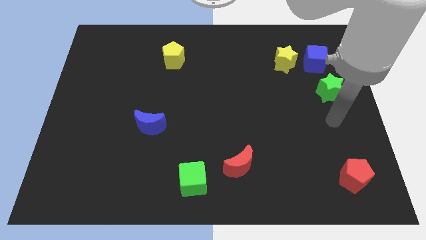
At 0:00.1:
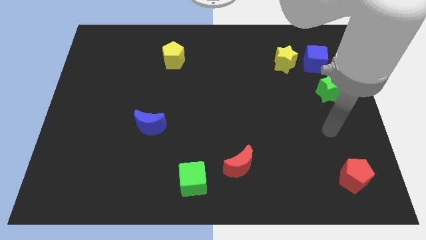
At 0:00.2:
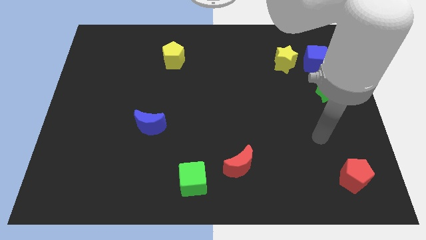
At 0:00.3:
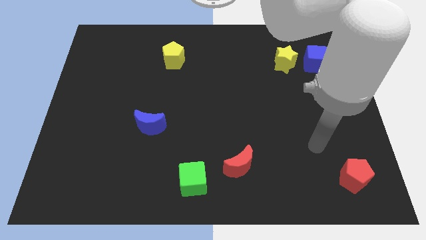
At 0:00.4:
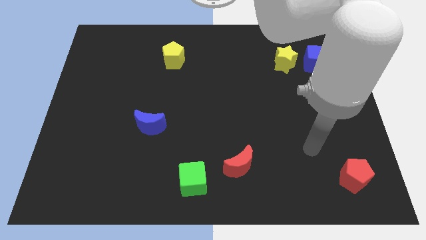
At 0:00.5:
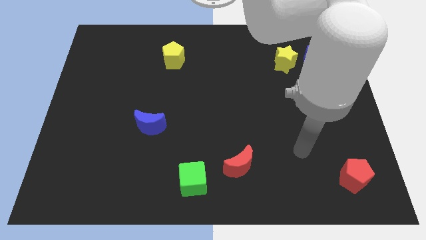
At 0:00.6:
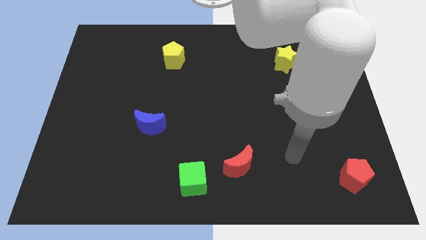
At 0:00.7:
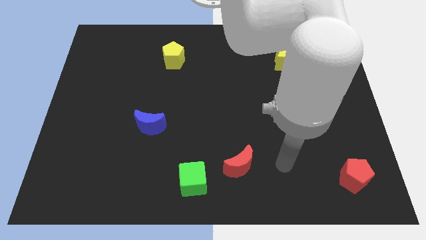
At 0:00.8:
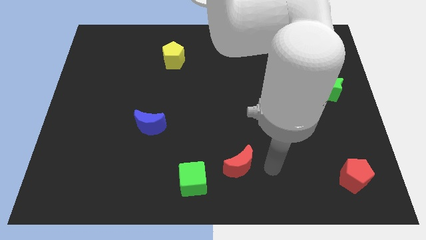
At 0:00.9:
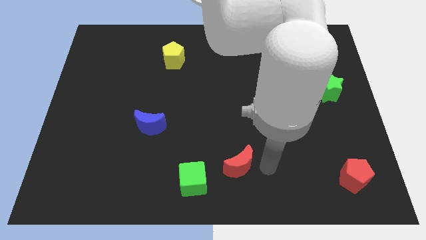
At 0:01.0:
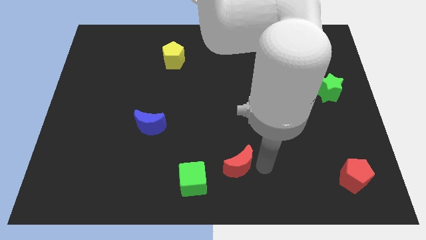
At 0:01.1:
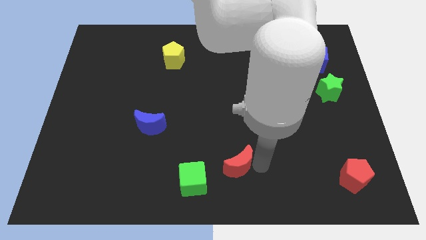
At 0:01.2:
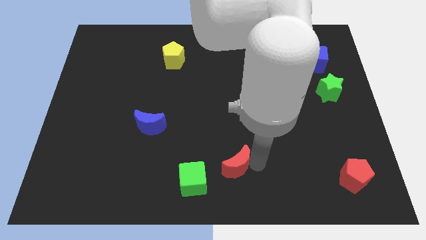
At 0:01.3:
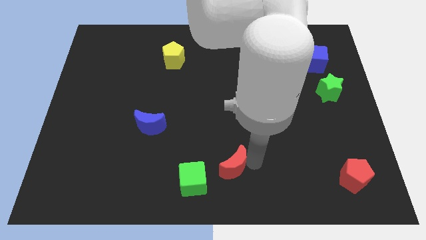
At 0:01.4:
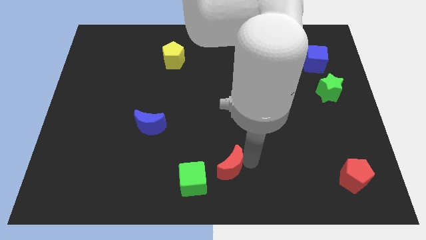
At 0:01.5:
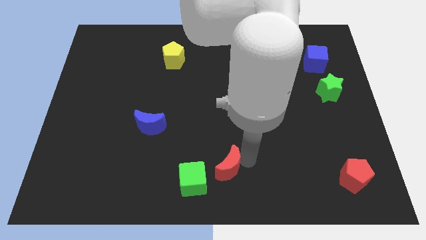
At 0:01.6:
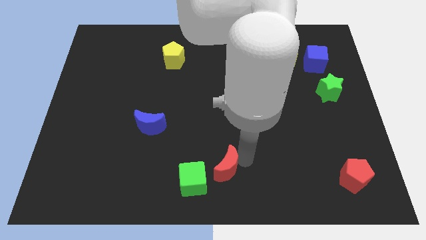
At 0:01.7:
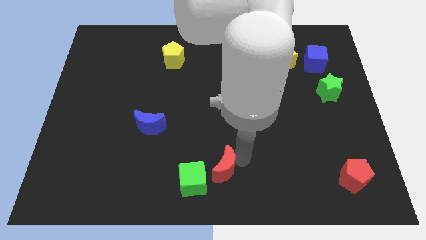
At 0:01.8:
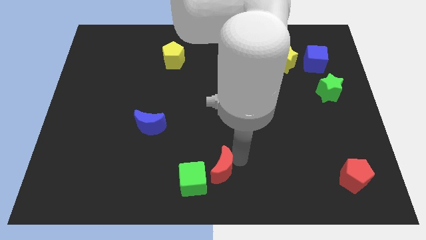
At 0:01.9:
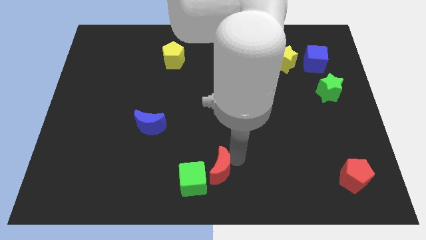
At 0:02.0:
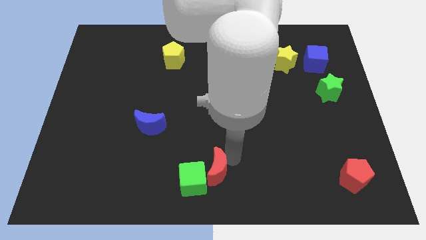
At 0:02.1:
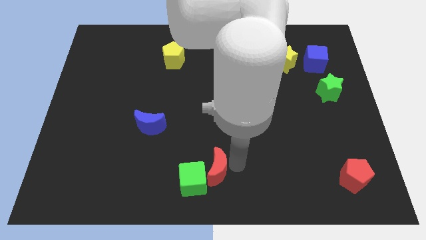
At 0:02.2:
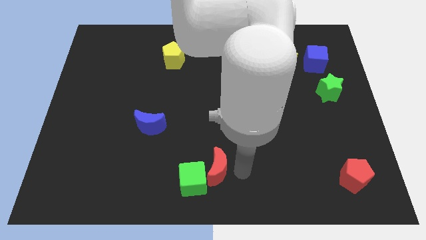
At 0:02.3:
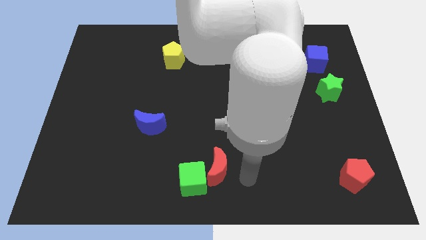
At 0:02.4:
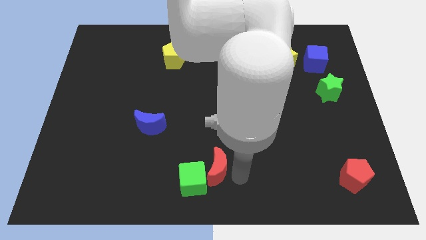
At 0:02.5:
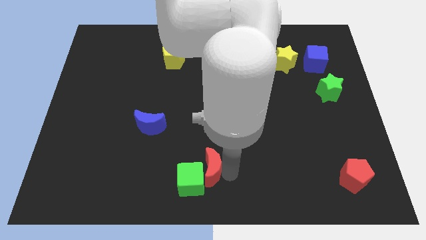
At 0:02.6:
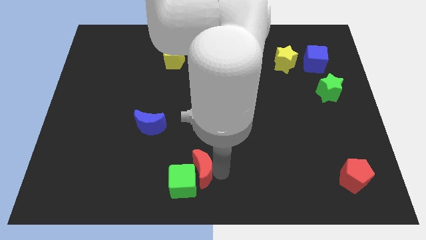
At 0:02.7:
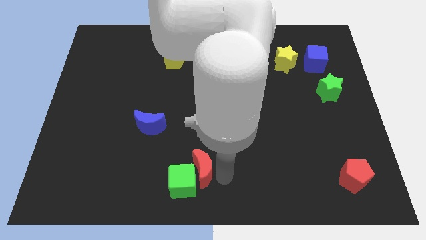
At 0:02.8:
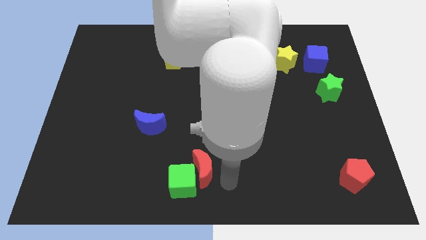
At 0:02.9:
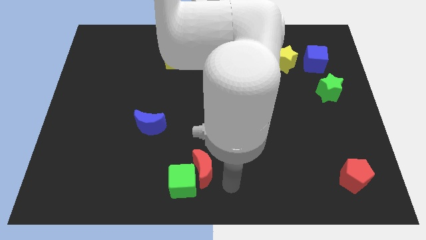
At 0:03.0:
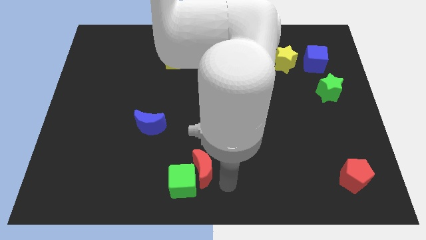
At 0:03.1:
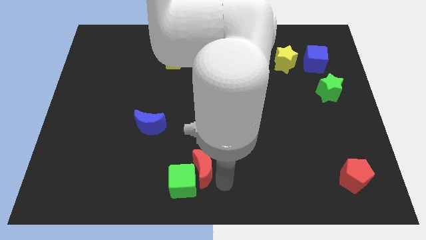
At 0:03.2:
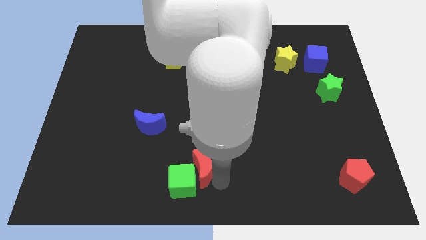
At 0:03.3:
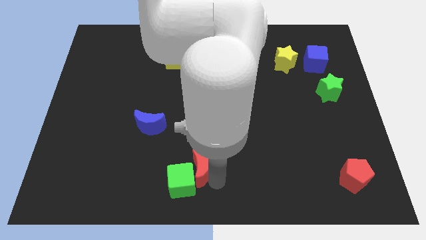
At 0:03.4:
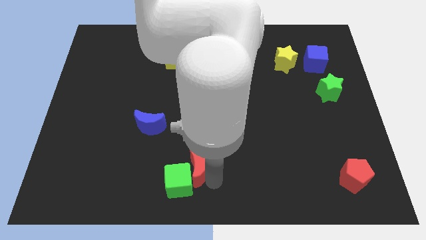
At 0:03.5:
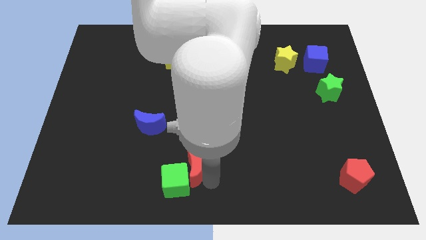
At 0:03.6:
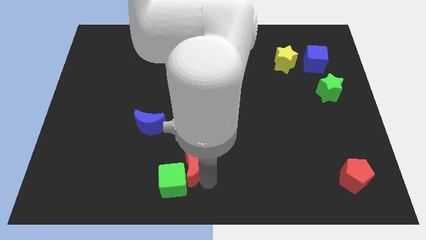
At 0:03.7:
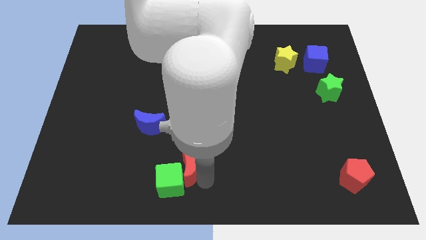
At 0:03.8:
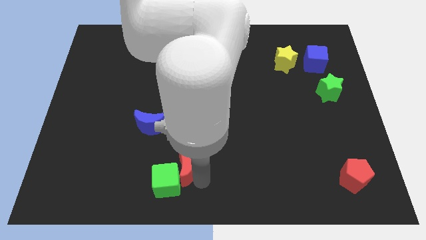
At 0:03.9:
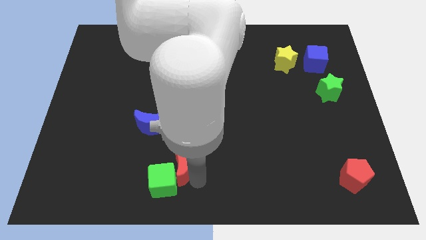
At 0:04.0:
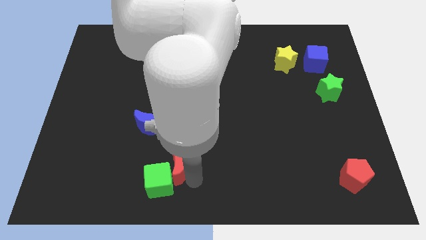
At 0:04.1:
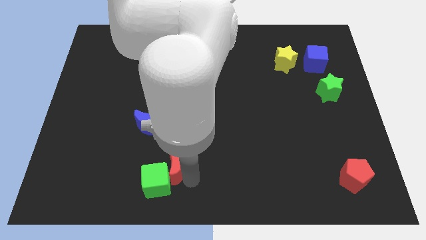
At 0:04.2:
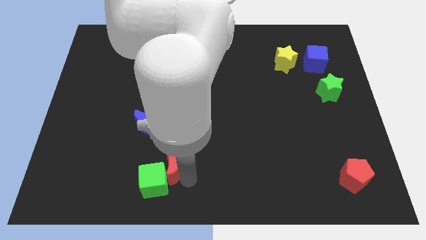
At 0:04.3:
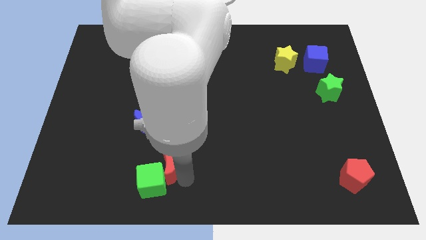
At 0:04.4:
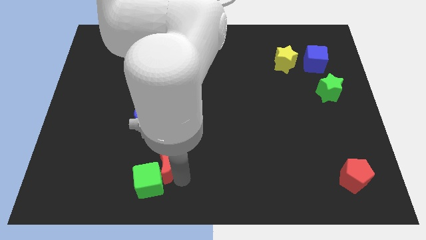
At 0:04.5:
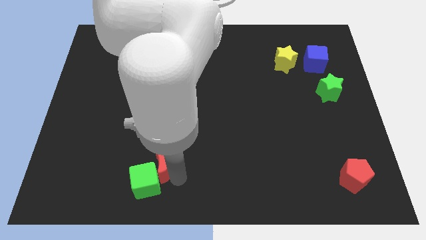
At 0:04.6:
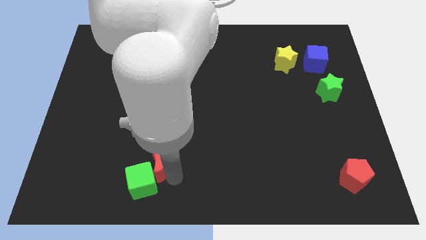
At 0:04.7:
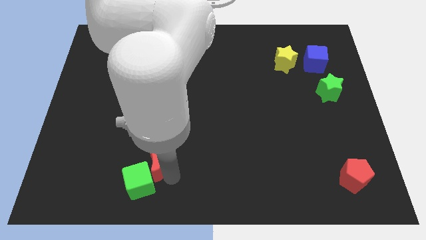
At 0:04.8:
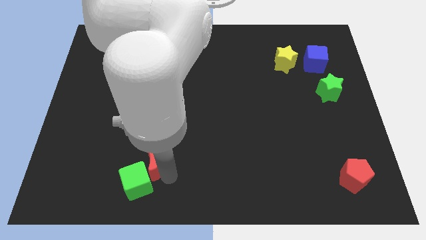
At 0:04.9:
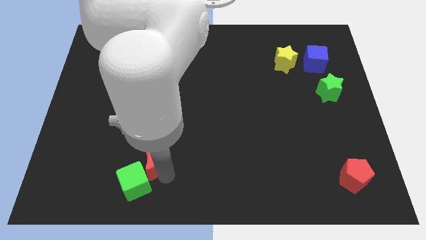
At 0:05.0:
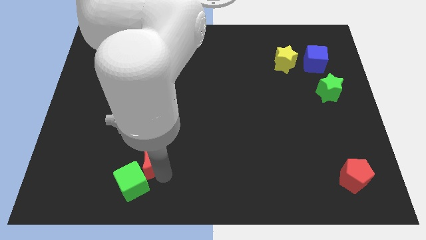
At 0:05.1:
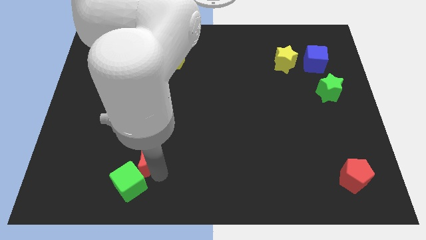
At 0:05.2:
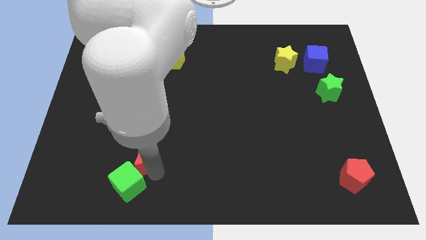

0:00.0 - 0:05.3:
slide the red moon left

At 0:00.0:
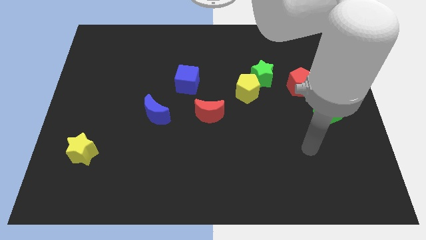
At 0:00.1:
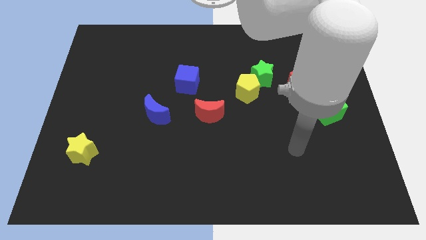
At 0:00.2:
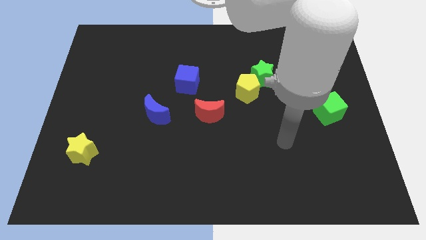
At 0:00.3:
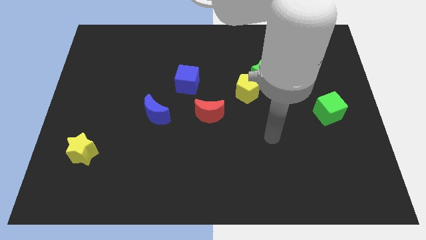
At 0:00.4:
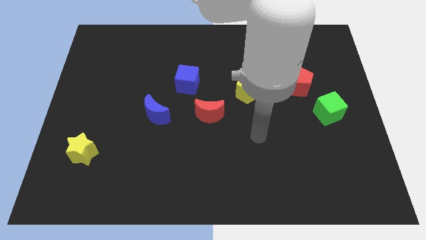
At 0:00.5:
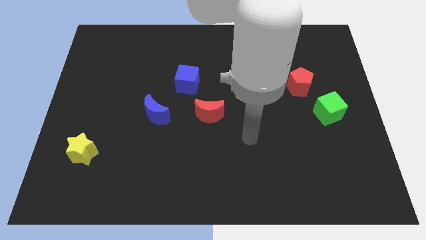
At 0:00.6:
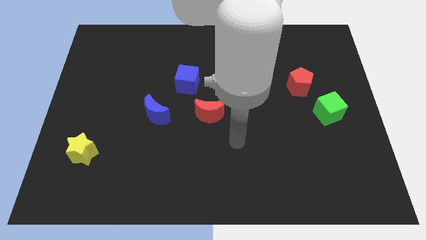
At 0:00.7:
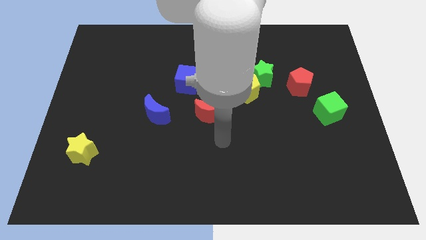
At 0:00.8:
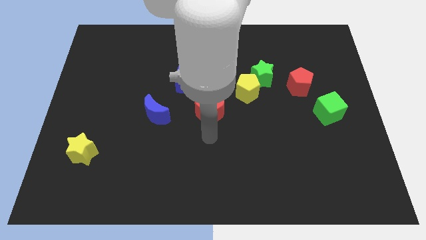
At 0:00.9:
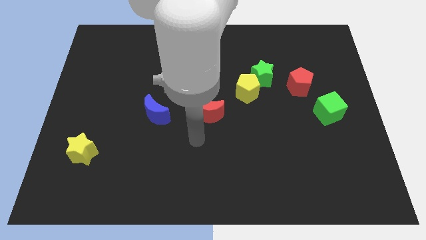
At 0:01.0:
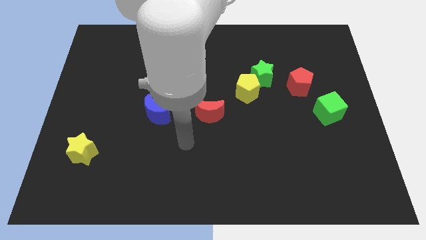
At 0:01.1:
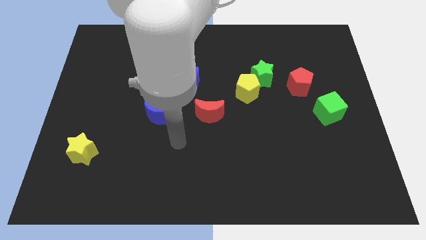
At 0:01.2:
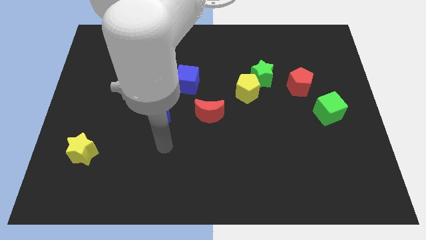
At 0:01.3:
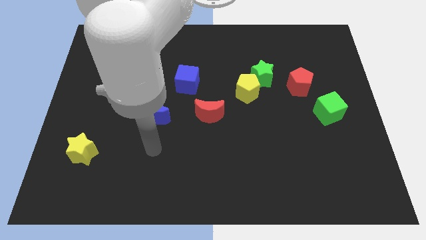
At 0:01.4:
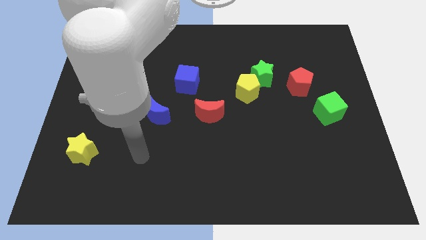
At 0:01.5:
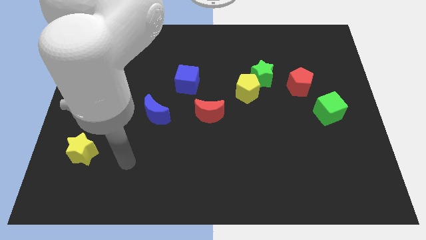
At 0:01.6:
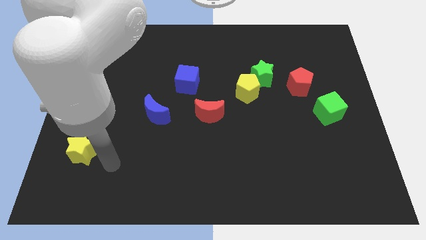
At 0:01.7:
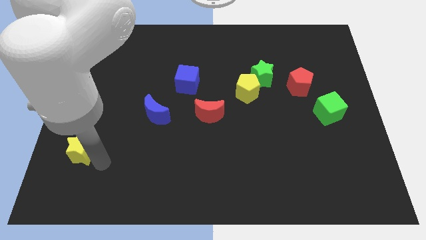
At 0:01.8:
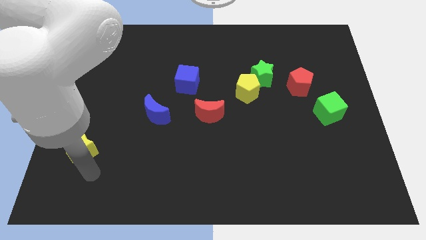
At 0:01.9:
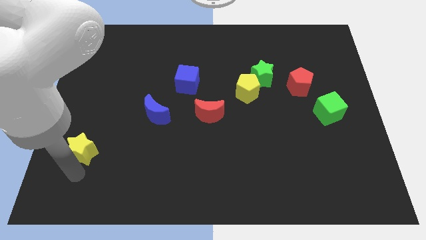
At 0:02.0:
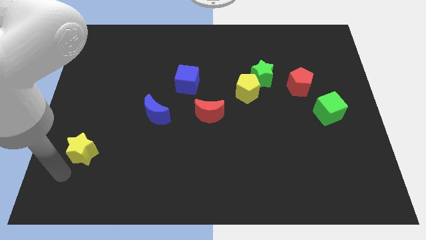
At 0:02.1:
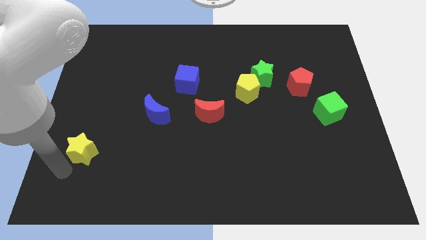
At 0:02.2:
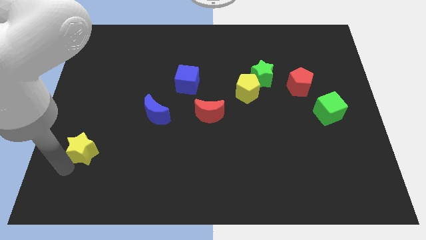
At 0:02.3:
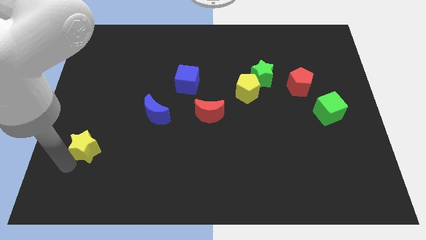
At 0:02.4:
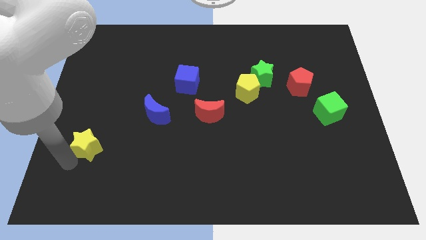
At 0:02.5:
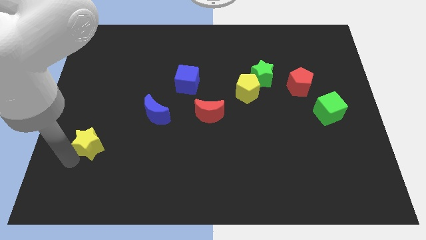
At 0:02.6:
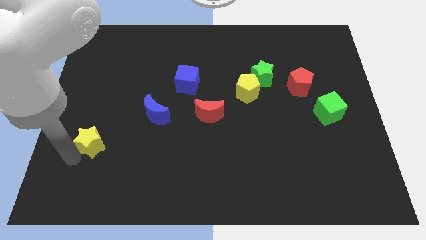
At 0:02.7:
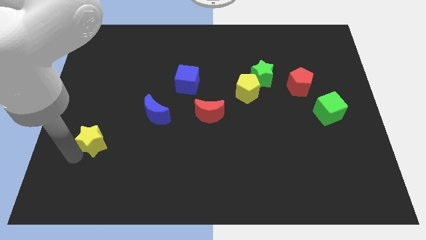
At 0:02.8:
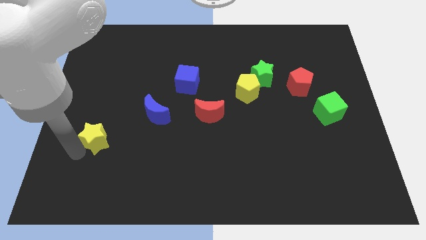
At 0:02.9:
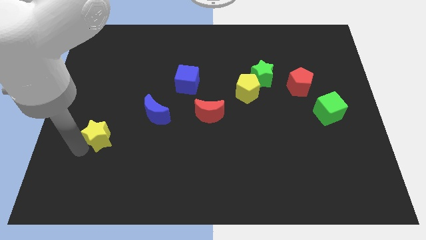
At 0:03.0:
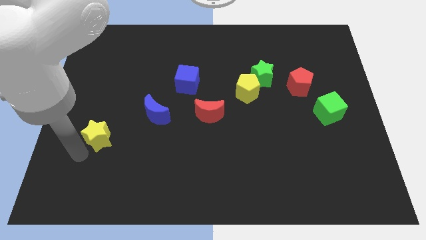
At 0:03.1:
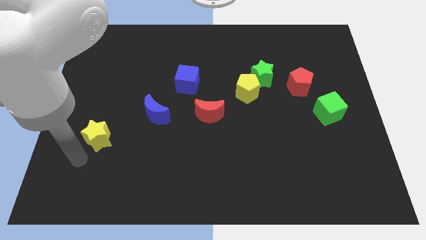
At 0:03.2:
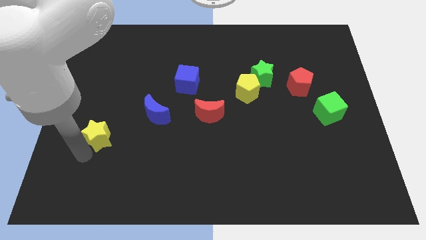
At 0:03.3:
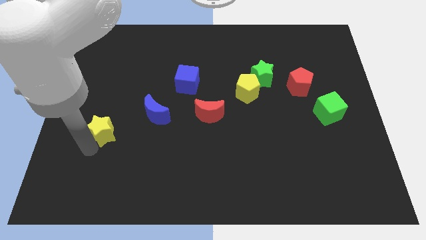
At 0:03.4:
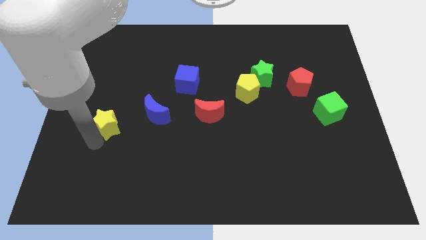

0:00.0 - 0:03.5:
slightly move the yellow star up and then to the right
